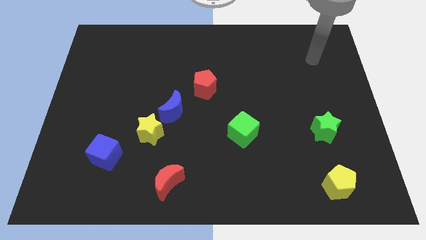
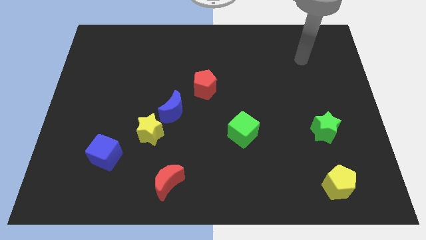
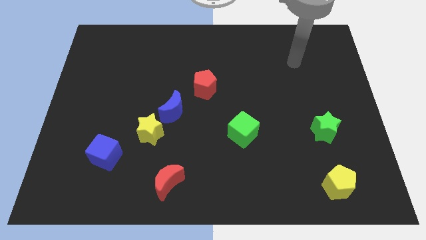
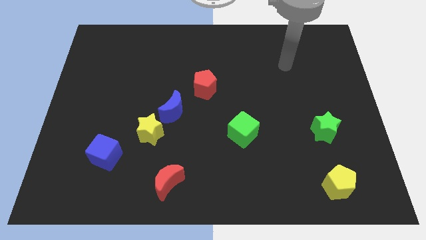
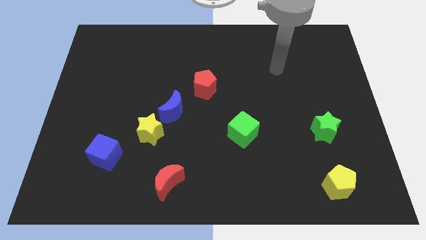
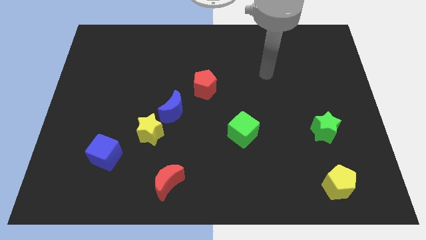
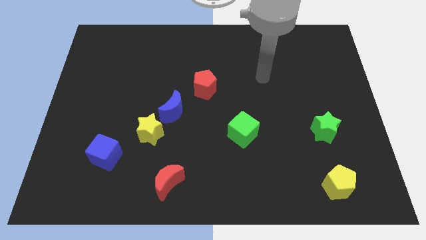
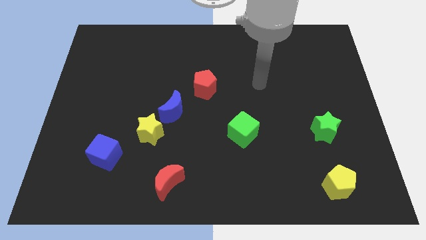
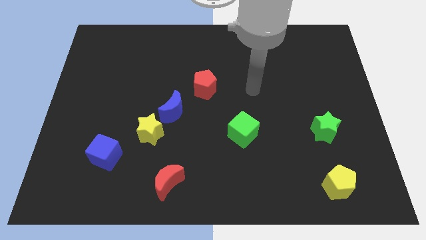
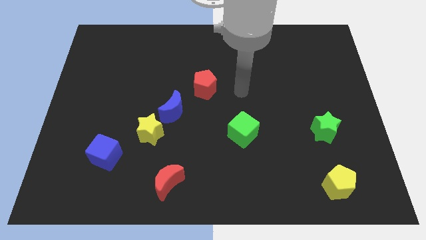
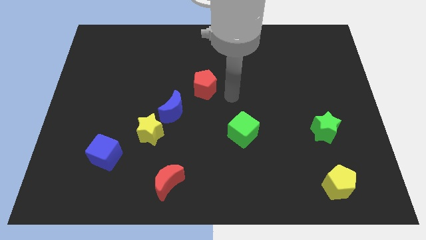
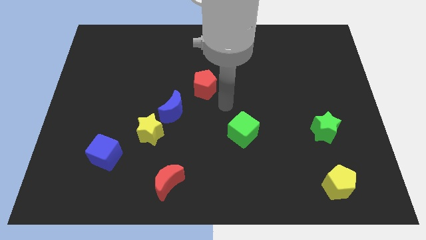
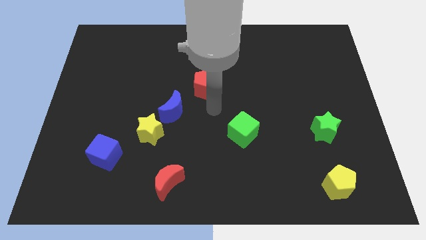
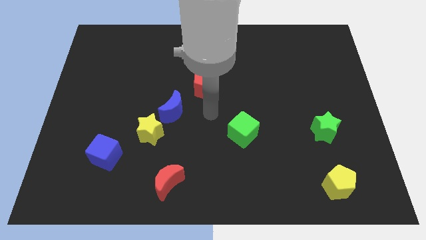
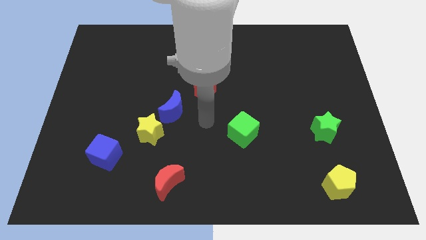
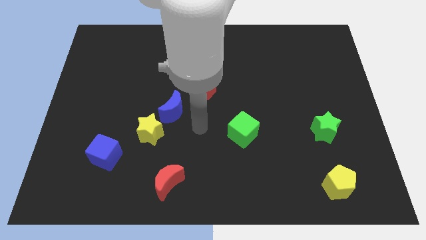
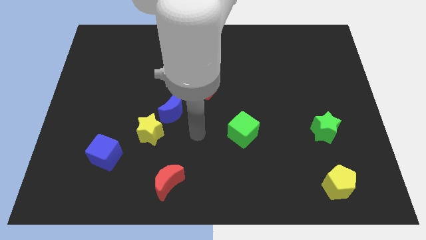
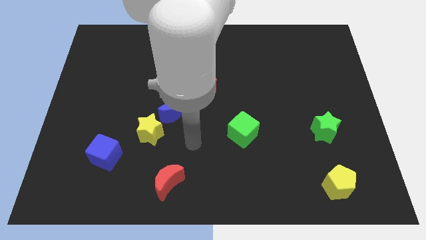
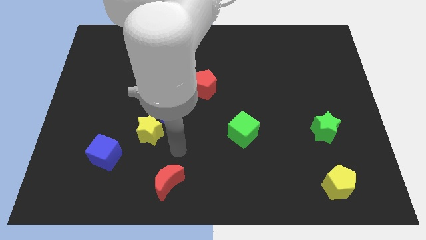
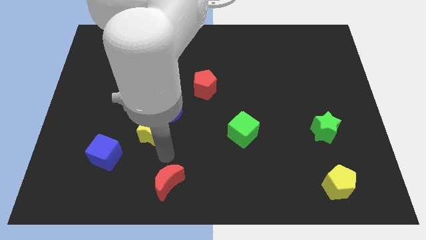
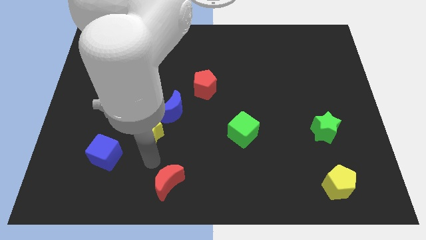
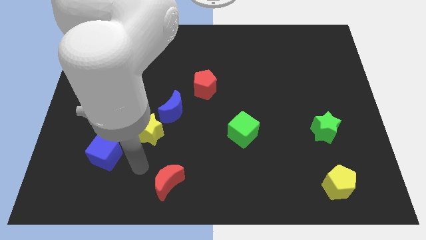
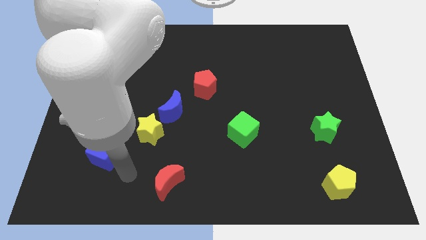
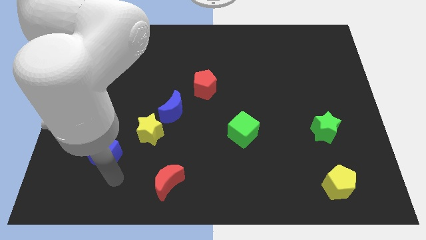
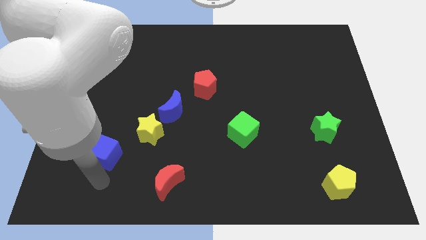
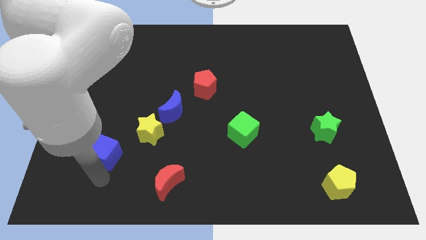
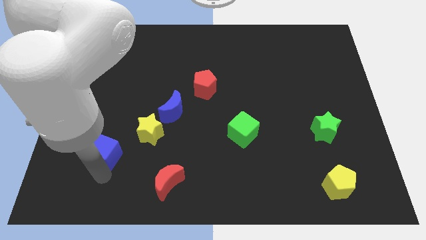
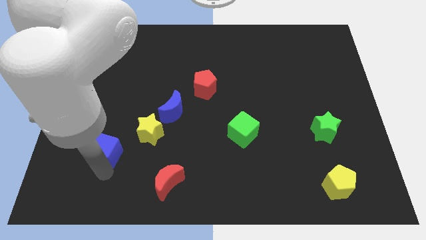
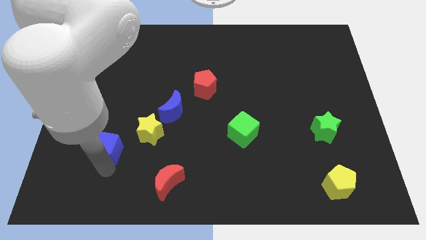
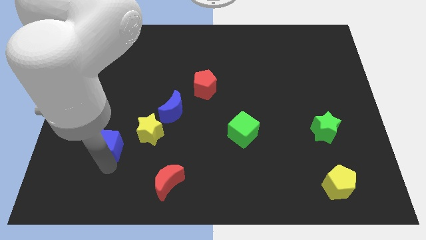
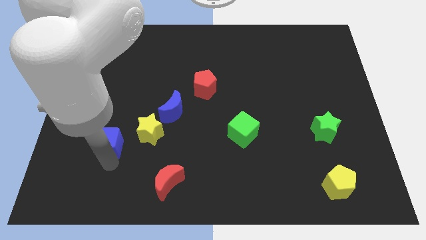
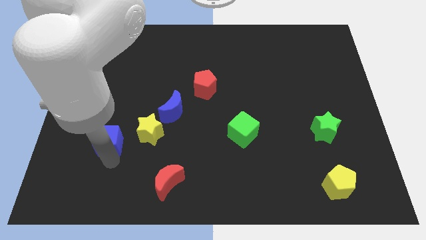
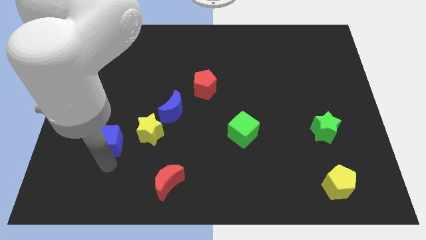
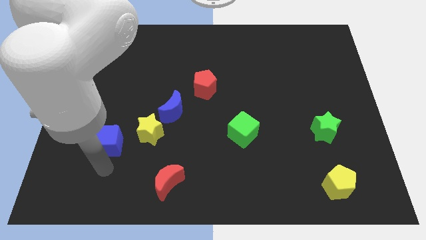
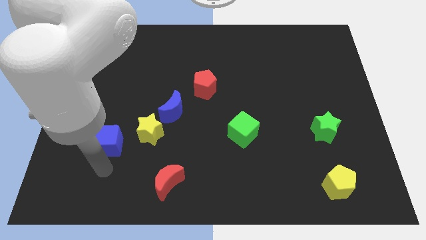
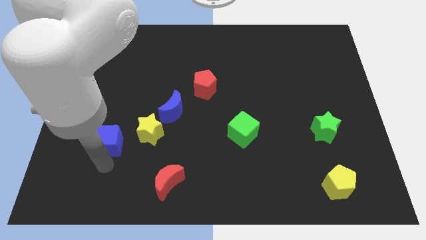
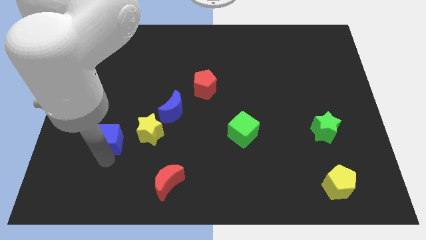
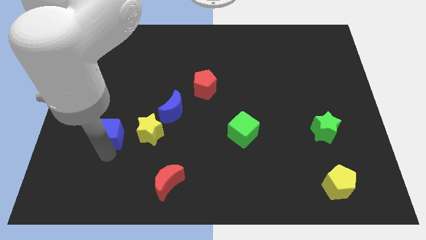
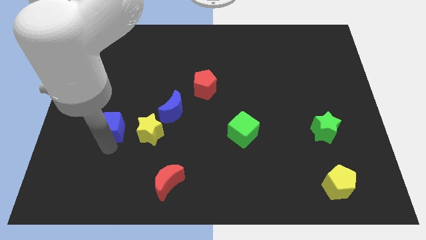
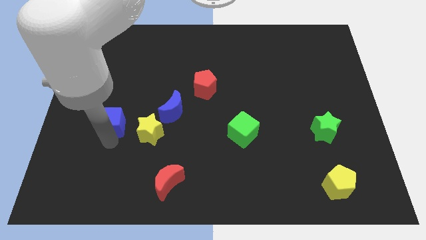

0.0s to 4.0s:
slightly slide the blue cube upwards

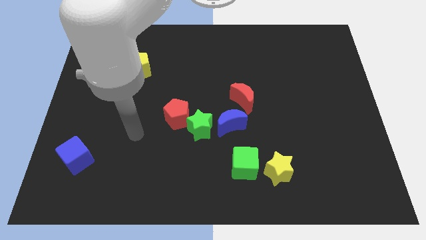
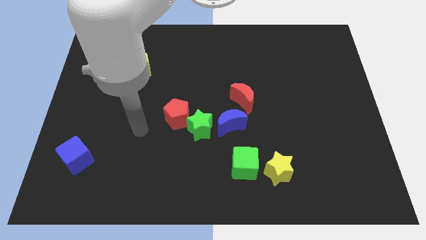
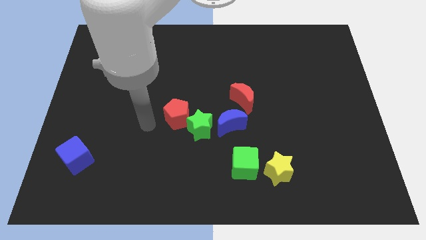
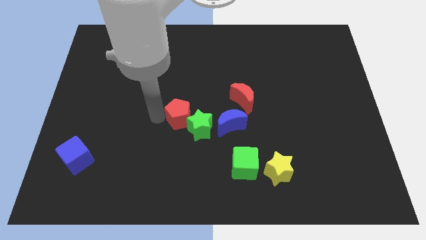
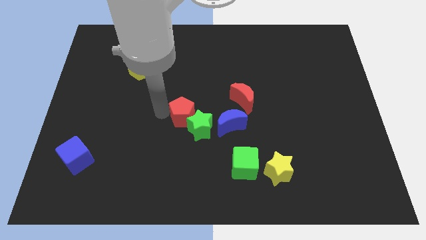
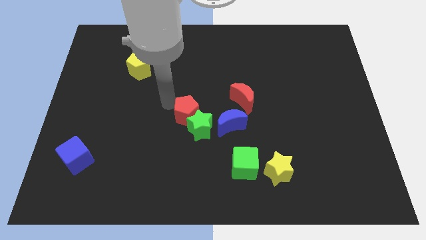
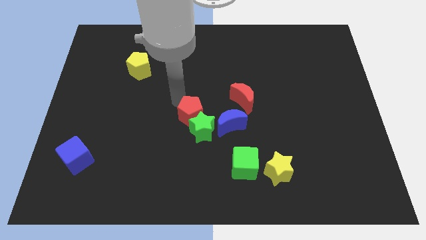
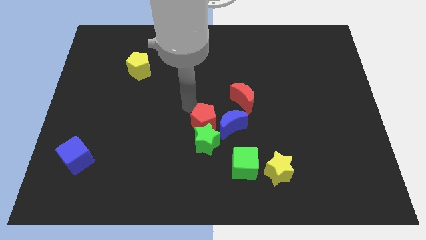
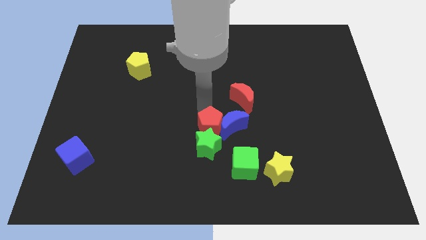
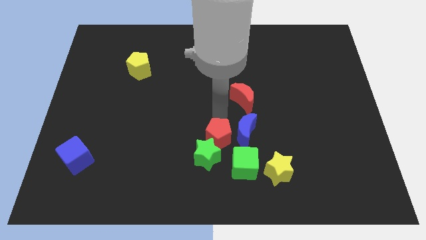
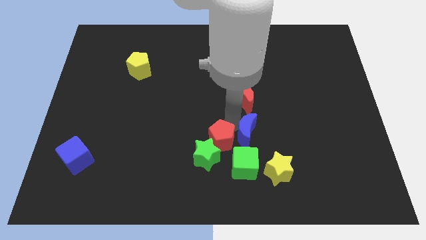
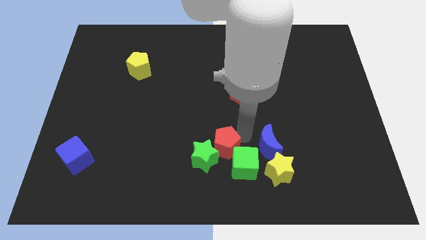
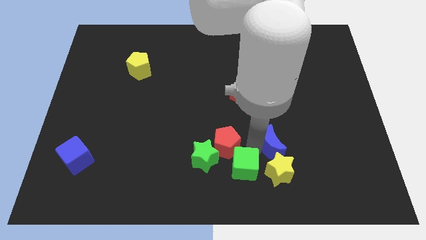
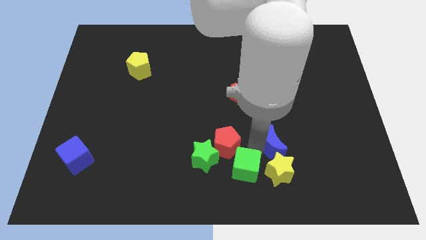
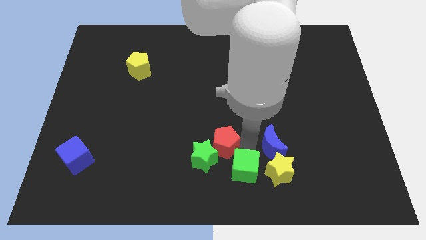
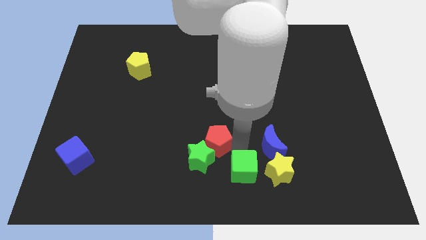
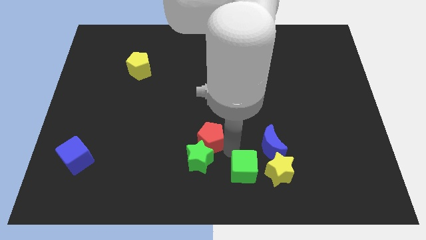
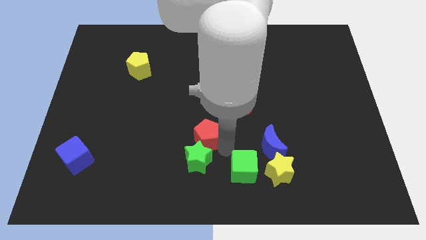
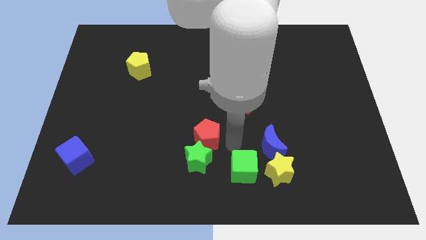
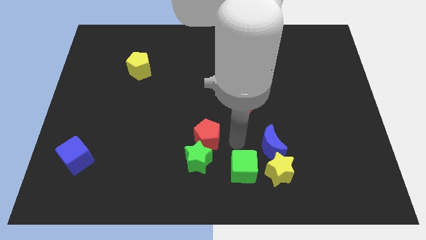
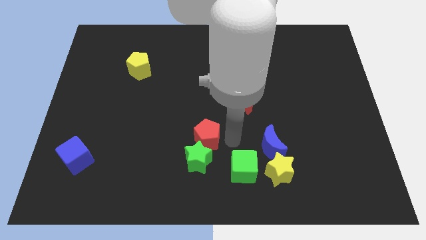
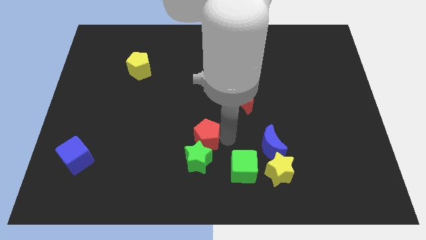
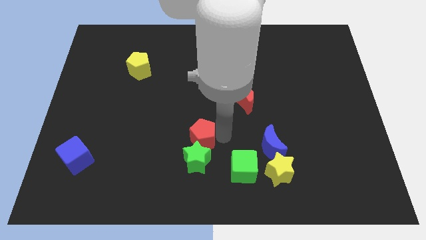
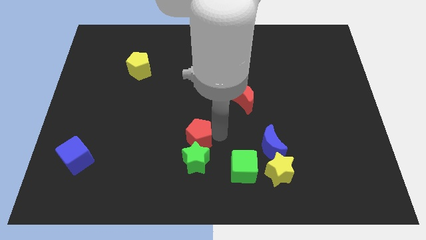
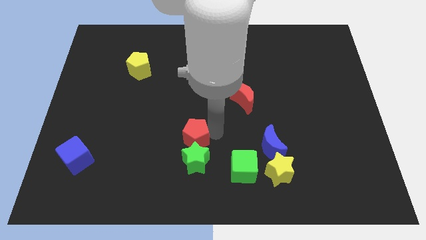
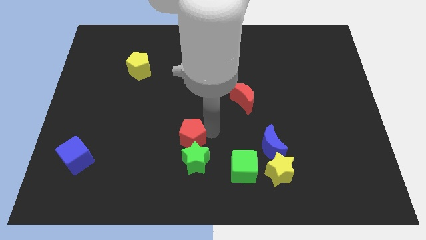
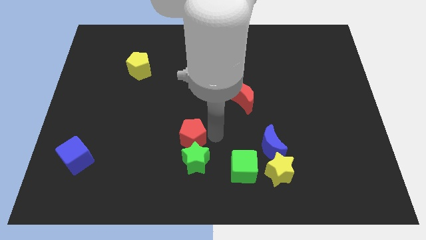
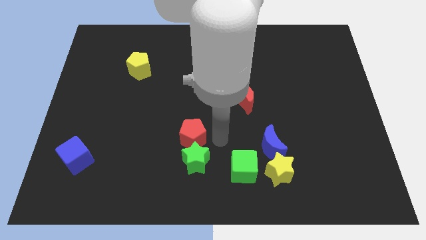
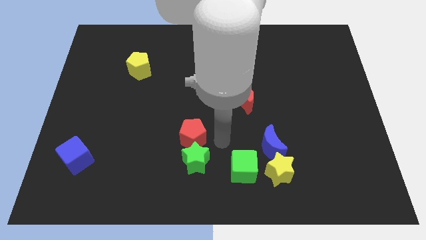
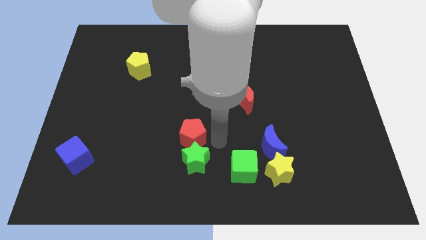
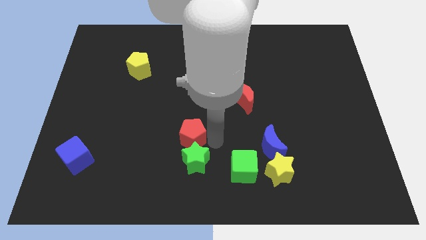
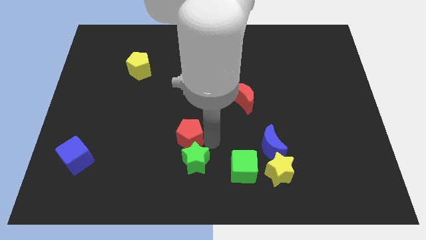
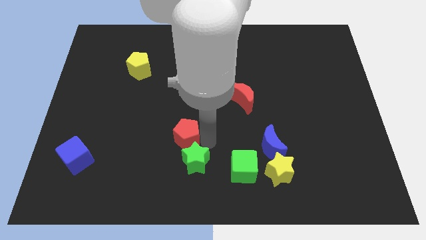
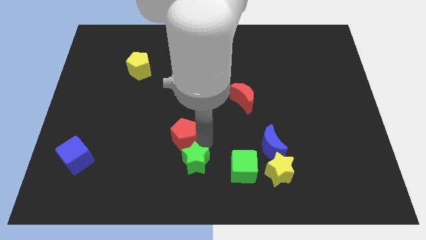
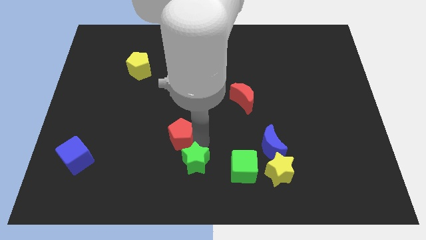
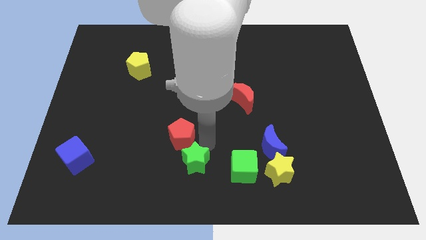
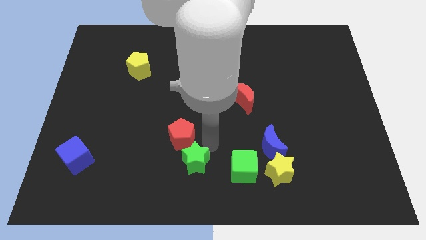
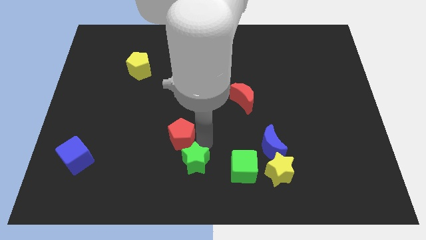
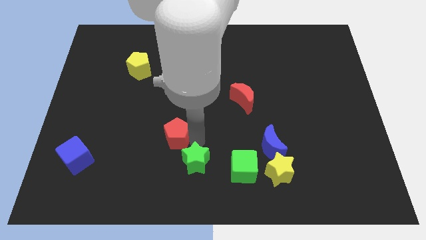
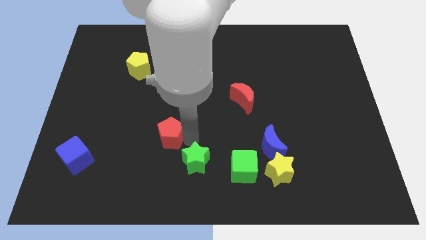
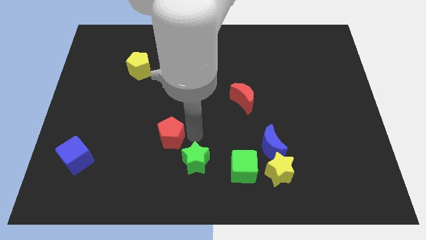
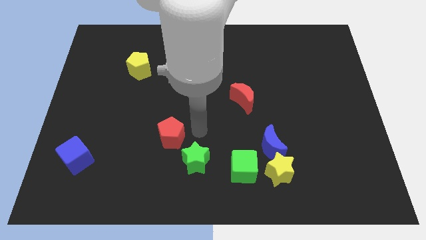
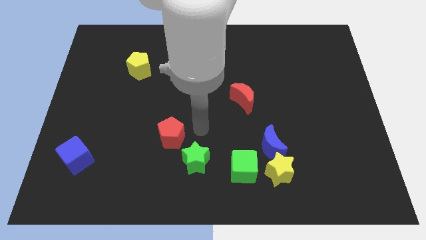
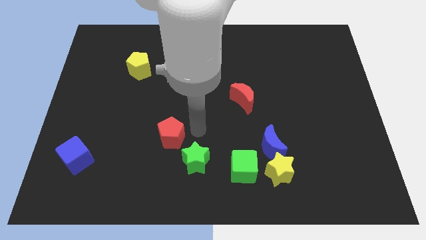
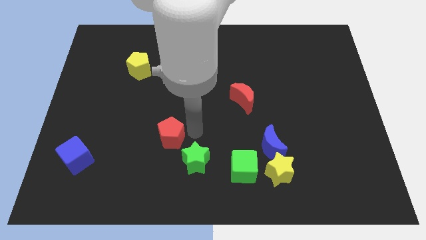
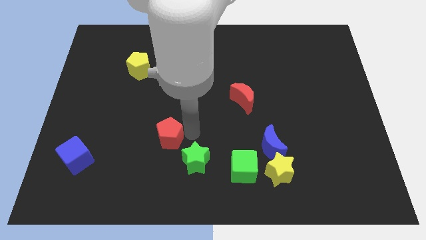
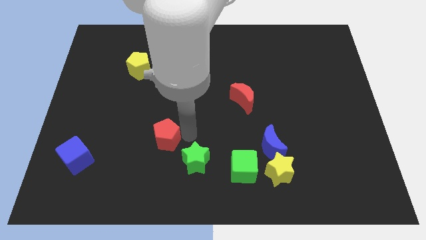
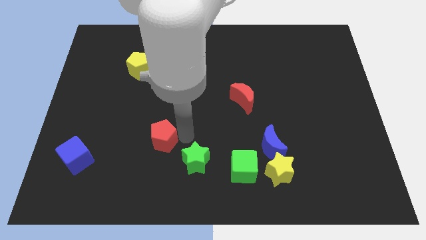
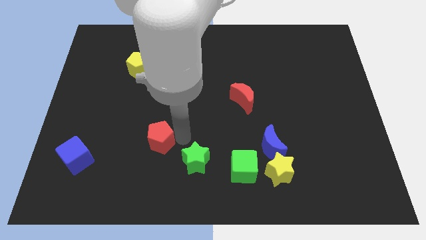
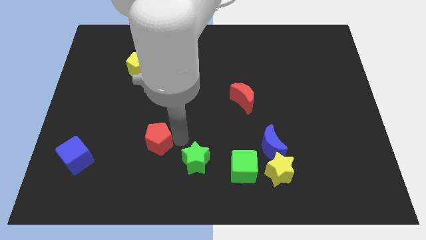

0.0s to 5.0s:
move the red pentagon down and to the left diagonally somewhat
